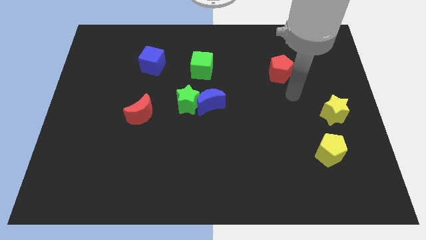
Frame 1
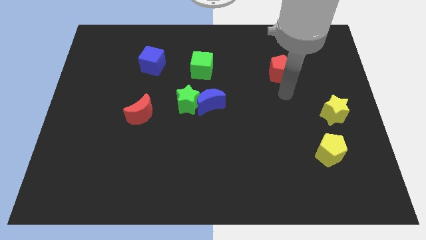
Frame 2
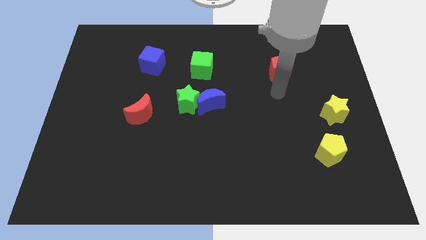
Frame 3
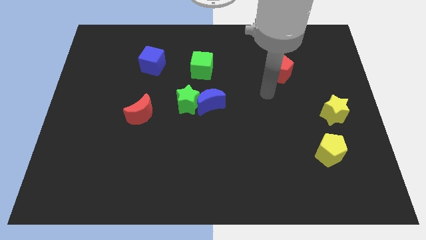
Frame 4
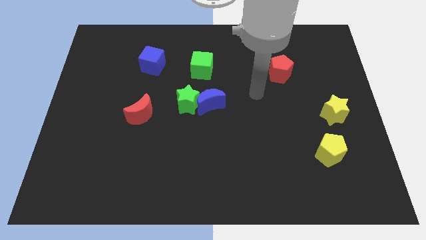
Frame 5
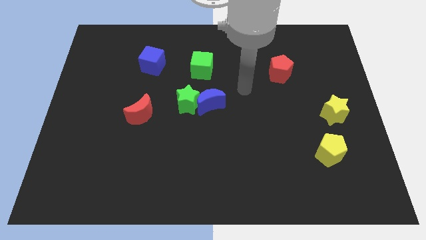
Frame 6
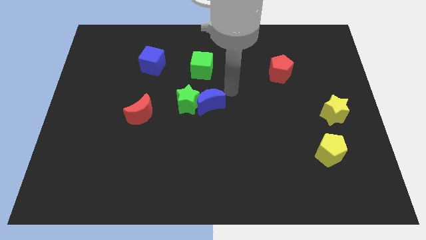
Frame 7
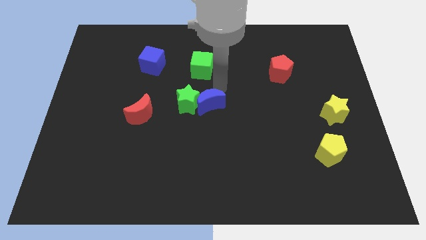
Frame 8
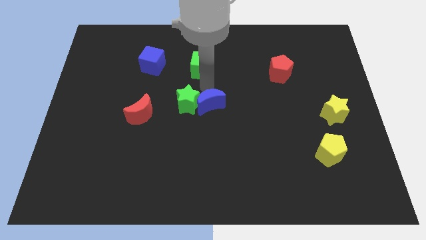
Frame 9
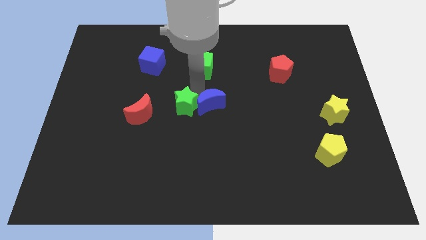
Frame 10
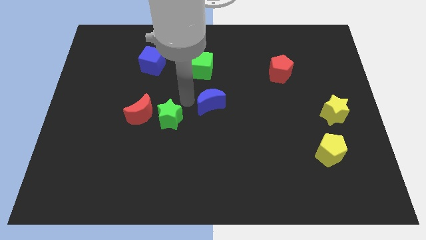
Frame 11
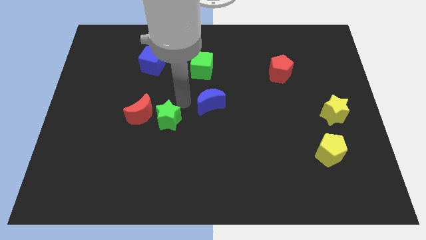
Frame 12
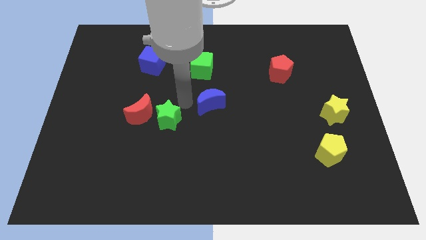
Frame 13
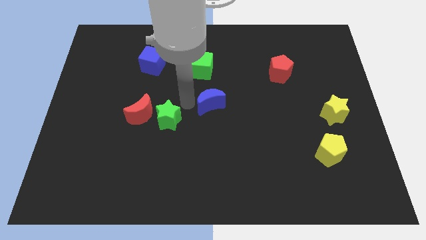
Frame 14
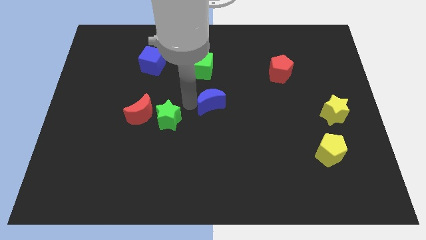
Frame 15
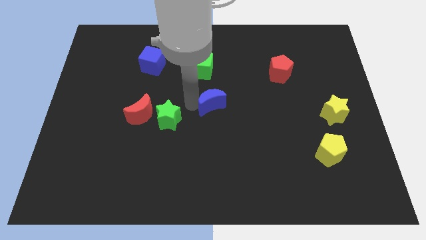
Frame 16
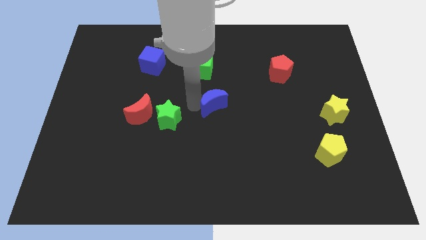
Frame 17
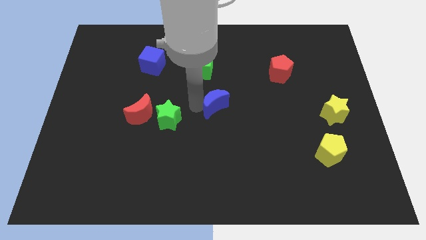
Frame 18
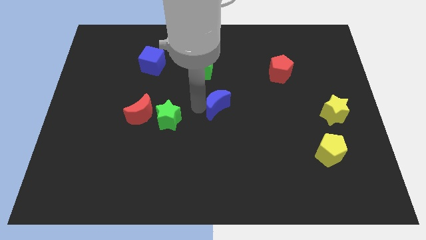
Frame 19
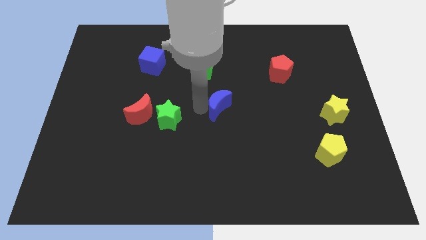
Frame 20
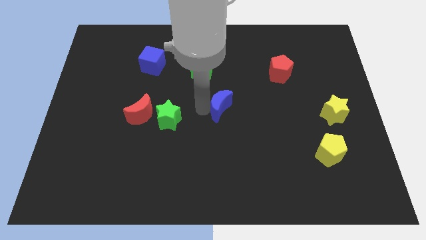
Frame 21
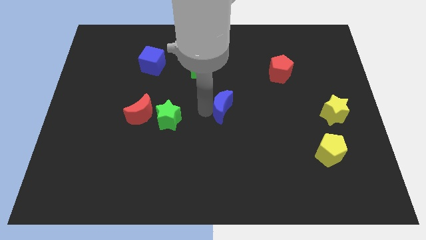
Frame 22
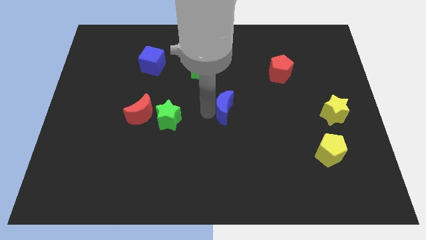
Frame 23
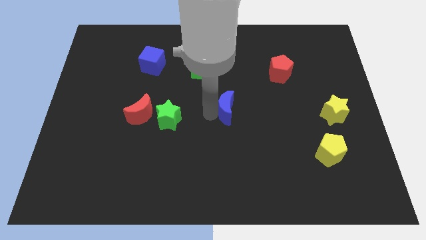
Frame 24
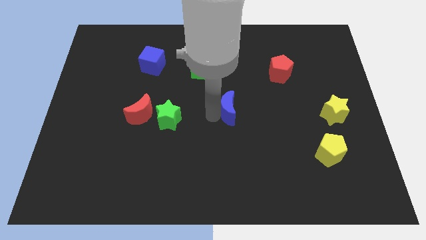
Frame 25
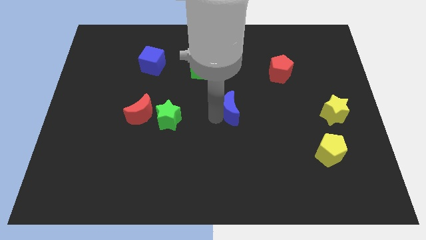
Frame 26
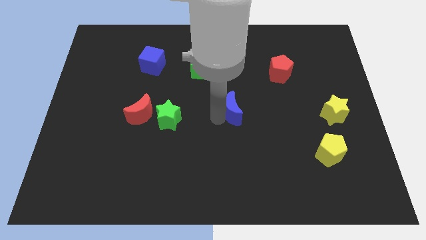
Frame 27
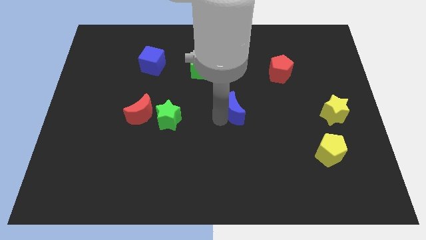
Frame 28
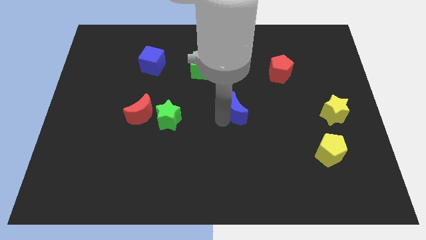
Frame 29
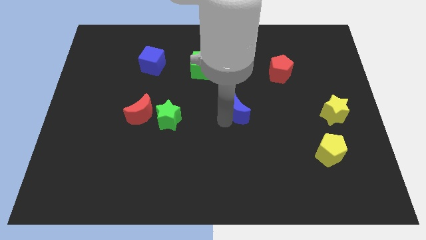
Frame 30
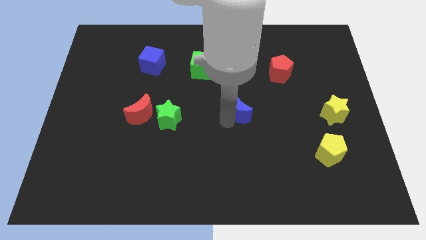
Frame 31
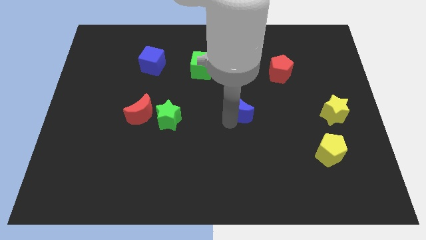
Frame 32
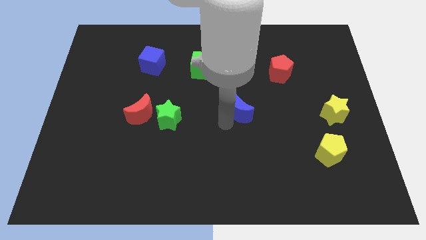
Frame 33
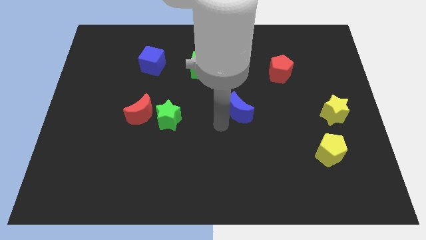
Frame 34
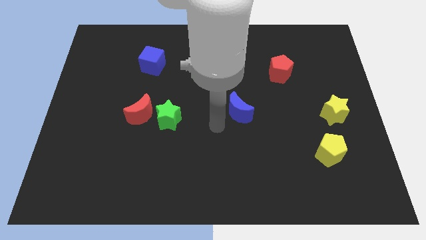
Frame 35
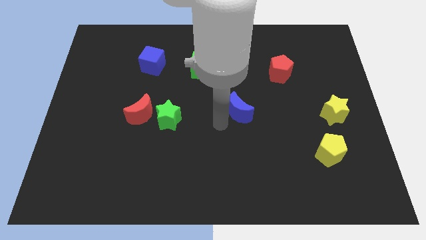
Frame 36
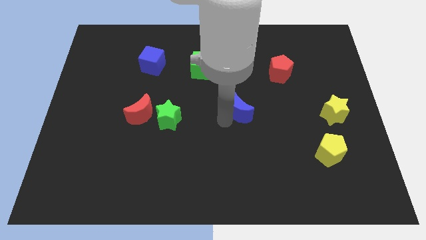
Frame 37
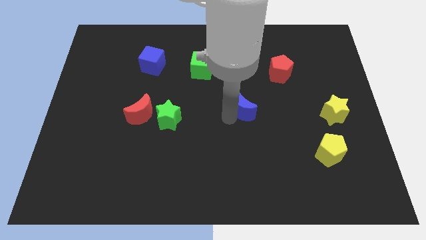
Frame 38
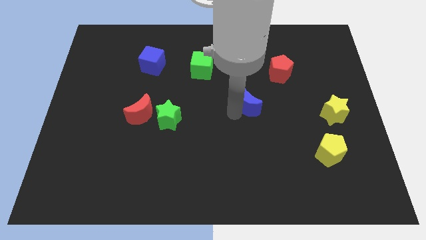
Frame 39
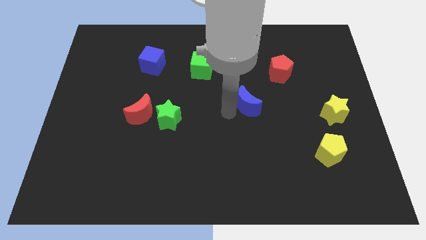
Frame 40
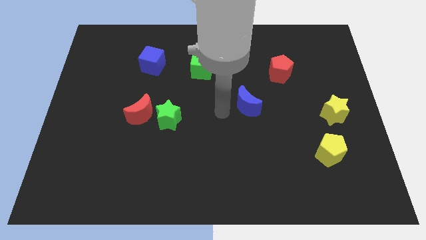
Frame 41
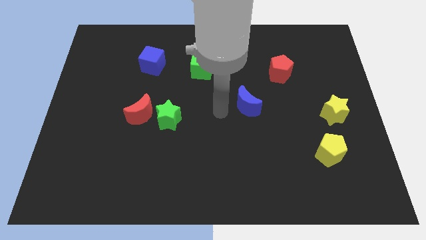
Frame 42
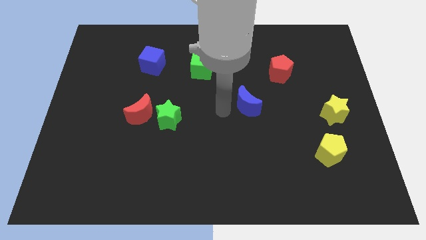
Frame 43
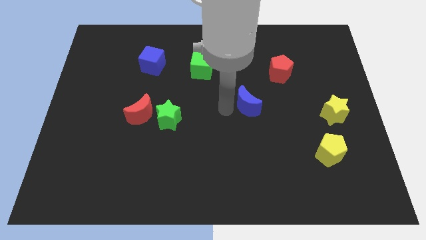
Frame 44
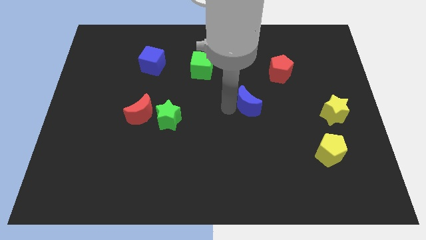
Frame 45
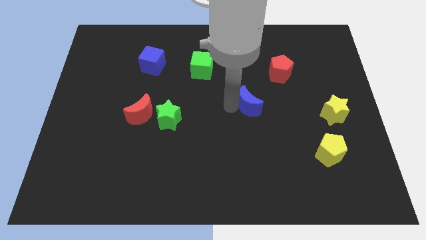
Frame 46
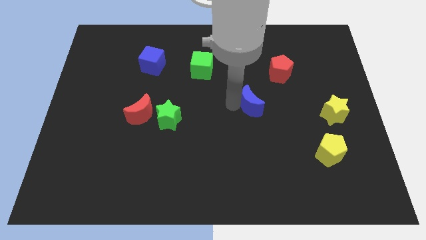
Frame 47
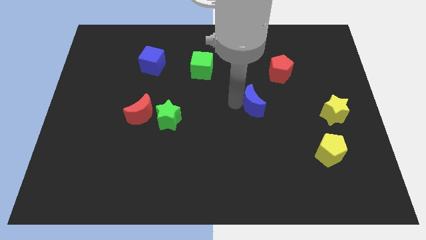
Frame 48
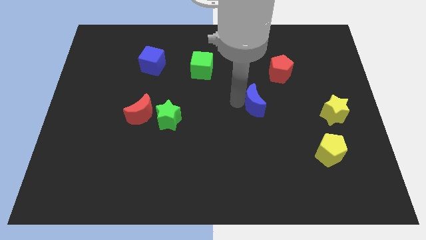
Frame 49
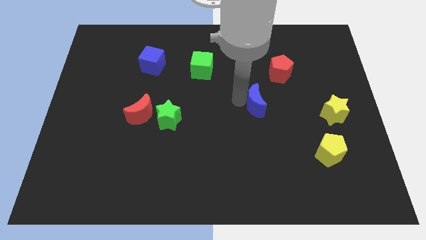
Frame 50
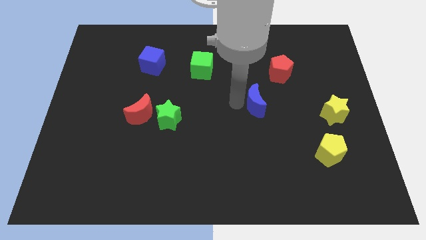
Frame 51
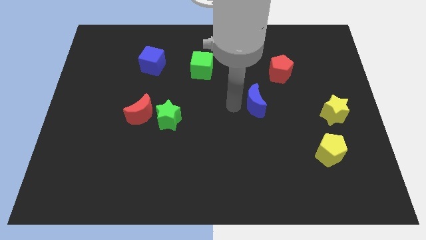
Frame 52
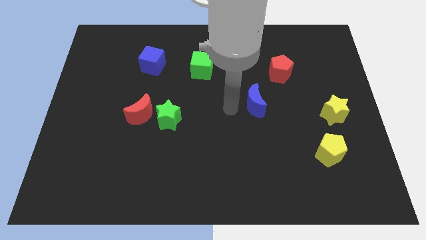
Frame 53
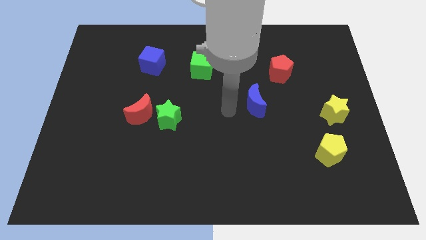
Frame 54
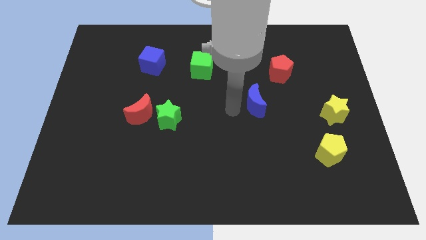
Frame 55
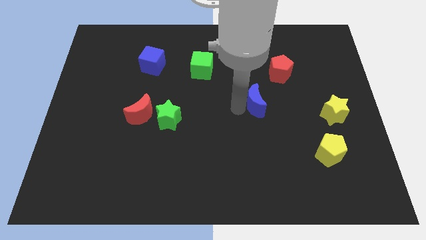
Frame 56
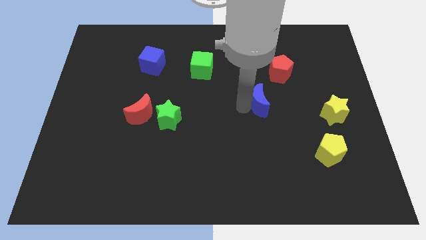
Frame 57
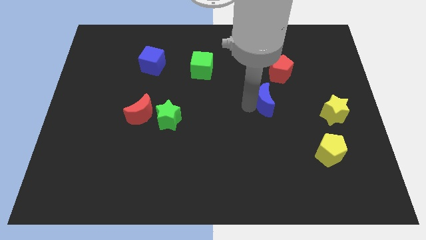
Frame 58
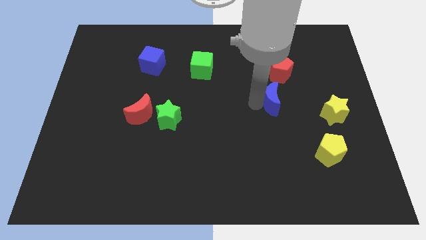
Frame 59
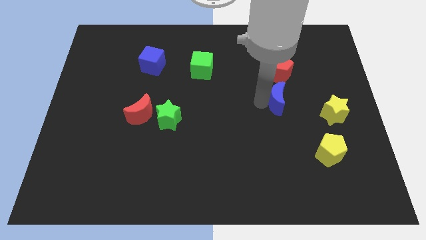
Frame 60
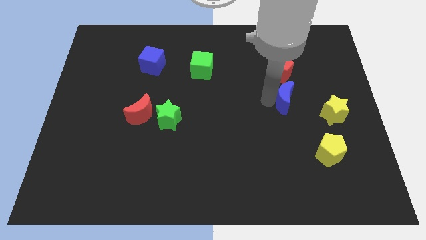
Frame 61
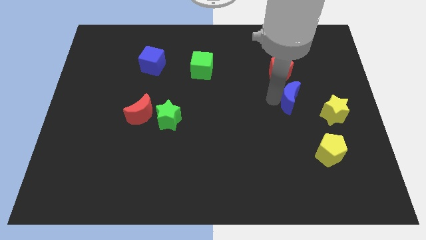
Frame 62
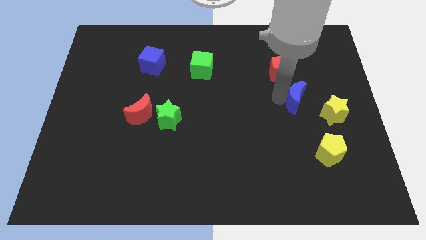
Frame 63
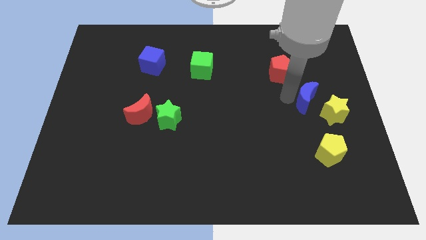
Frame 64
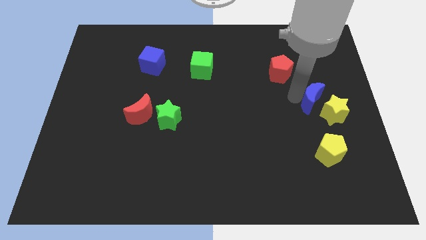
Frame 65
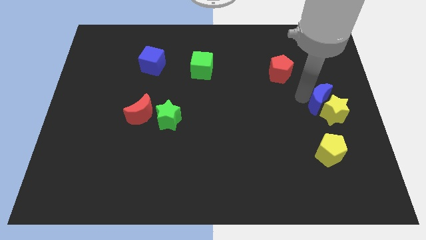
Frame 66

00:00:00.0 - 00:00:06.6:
push the blue moon close to the yellow star
